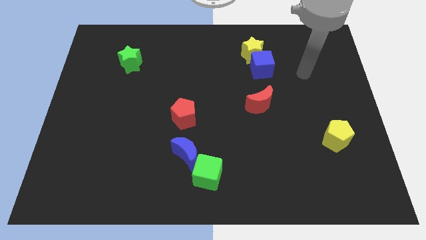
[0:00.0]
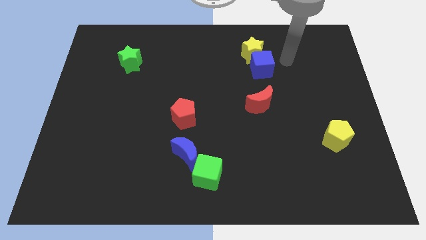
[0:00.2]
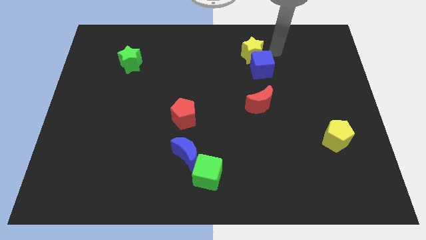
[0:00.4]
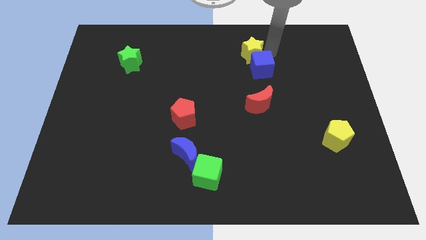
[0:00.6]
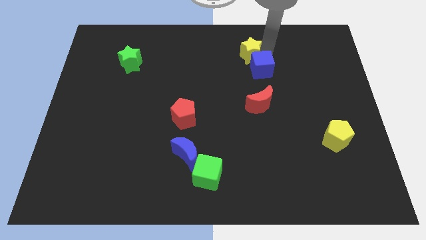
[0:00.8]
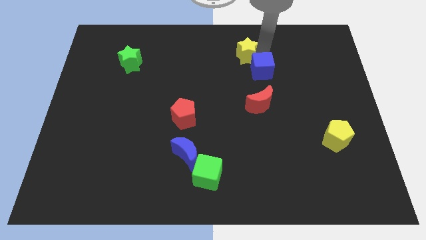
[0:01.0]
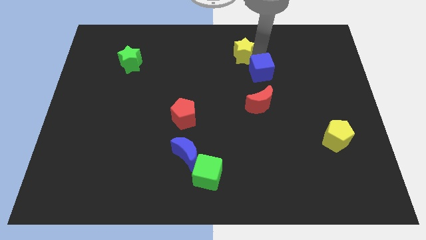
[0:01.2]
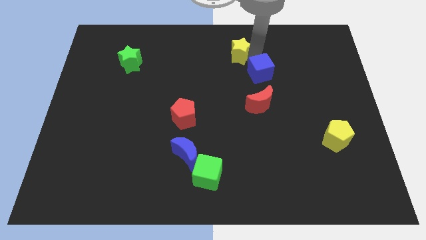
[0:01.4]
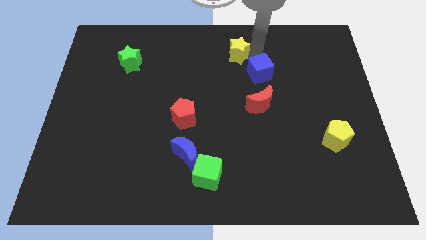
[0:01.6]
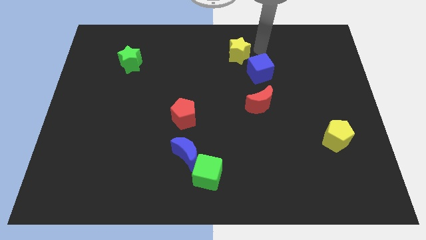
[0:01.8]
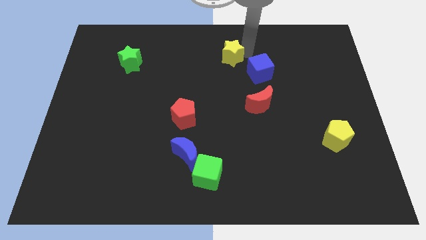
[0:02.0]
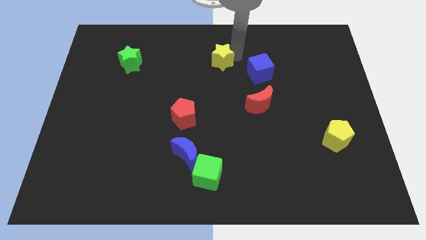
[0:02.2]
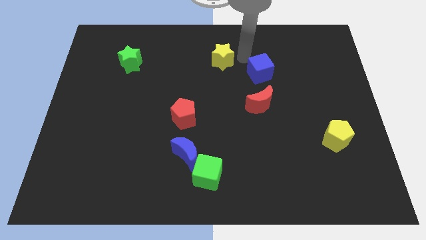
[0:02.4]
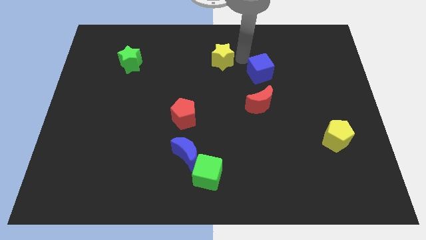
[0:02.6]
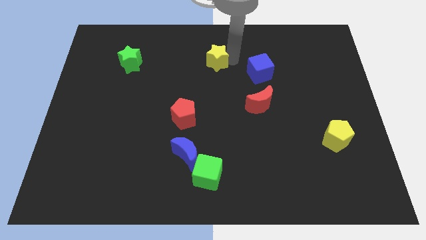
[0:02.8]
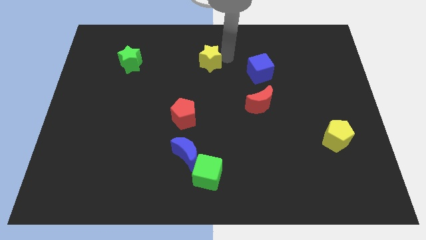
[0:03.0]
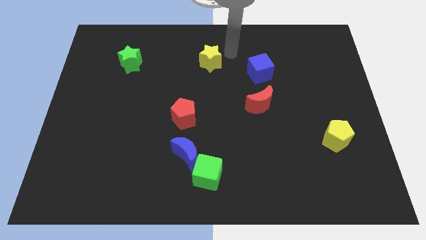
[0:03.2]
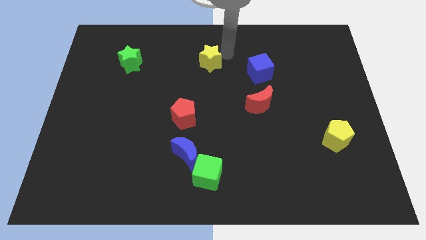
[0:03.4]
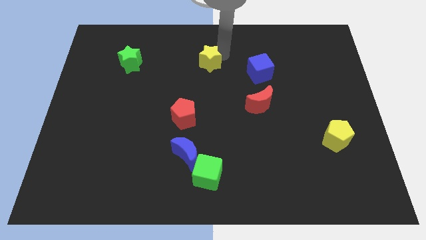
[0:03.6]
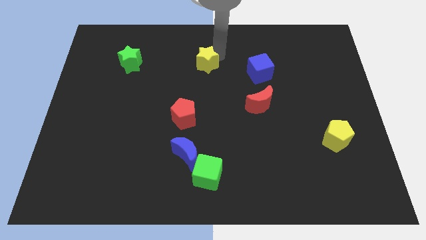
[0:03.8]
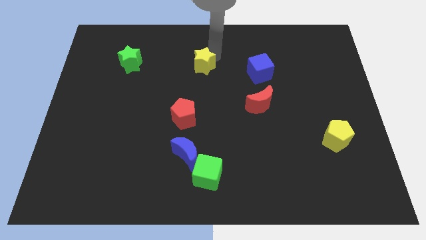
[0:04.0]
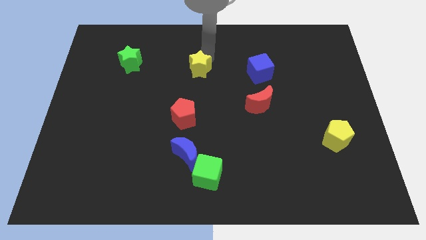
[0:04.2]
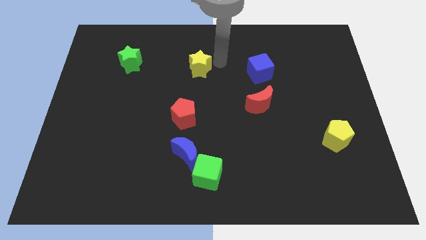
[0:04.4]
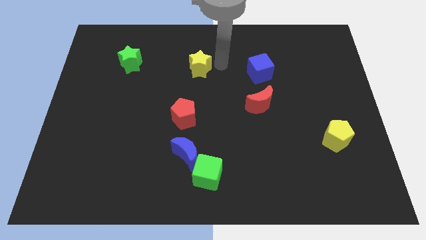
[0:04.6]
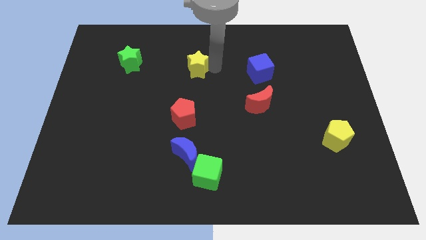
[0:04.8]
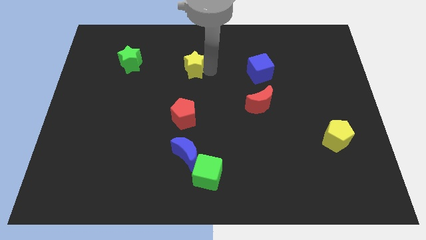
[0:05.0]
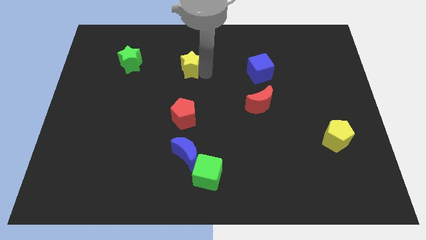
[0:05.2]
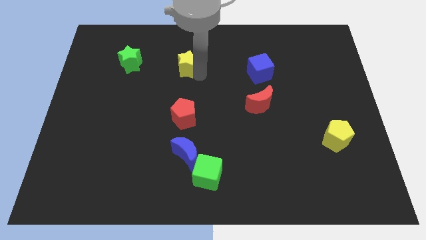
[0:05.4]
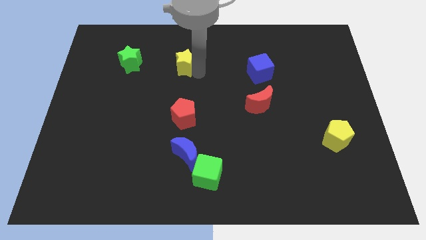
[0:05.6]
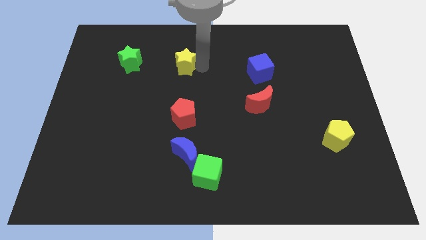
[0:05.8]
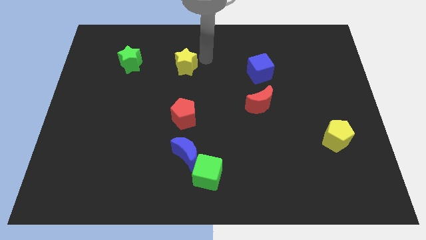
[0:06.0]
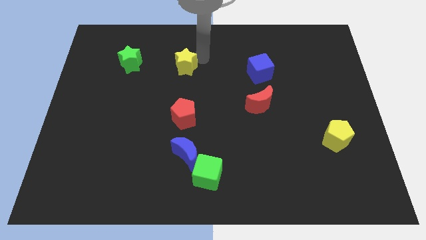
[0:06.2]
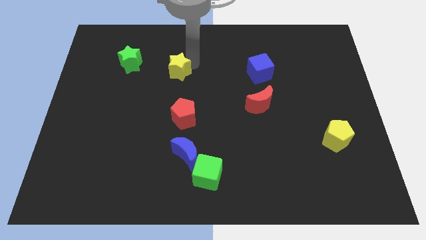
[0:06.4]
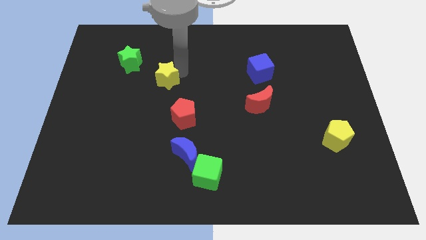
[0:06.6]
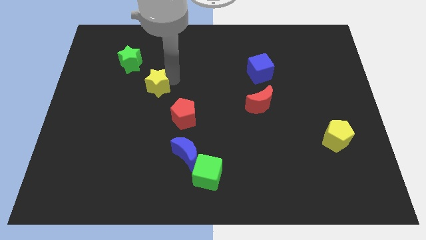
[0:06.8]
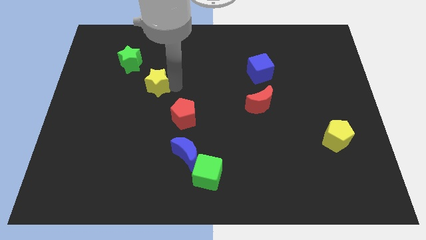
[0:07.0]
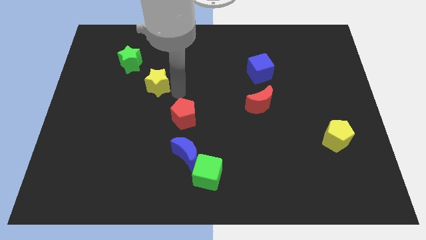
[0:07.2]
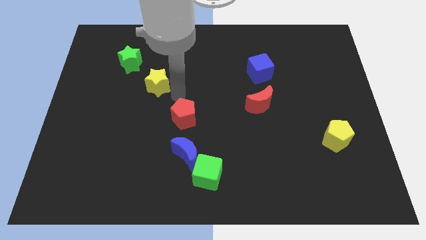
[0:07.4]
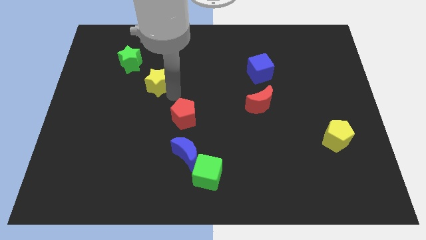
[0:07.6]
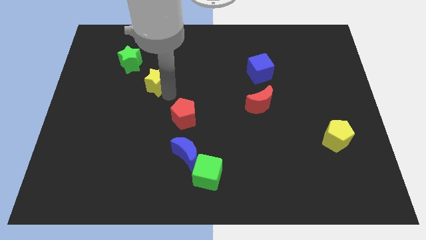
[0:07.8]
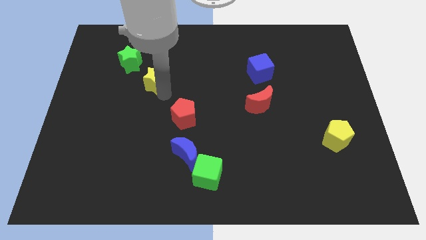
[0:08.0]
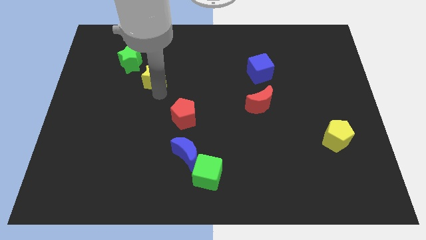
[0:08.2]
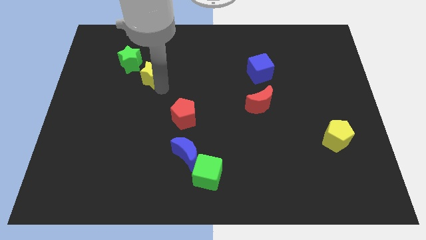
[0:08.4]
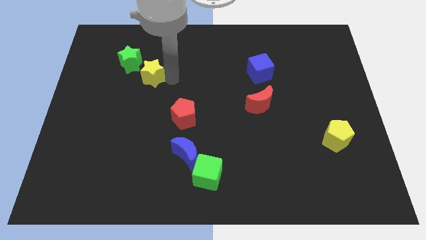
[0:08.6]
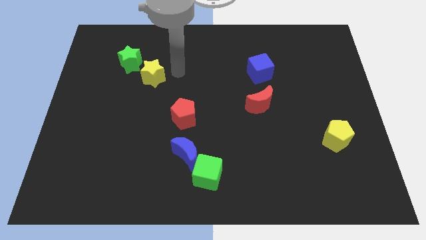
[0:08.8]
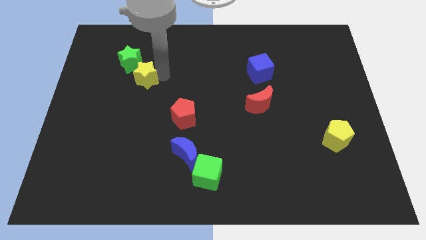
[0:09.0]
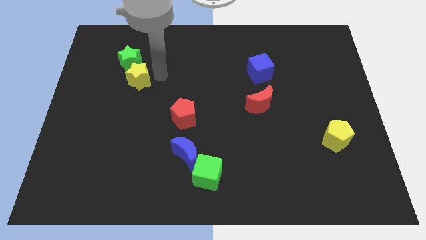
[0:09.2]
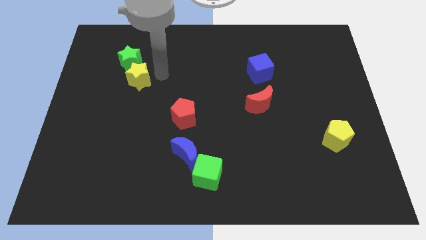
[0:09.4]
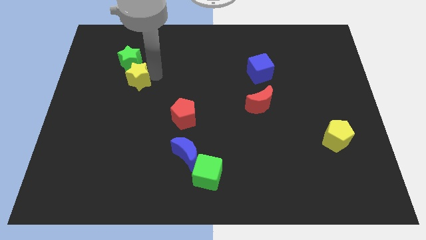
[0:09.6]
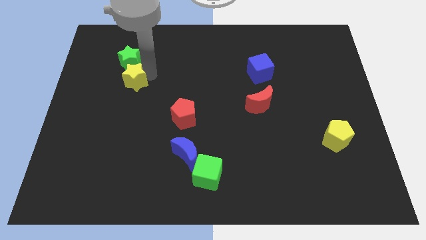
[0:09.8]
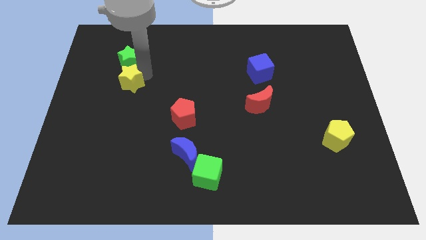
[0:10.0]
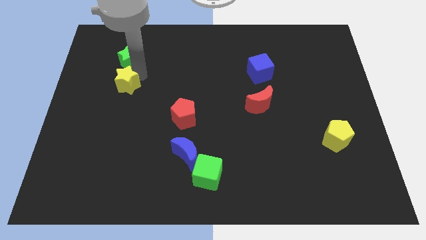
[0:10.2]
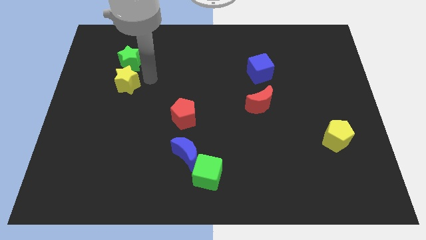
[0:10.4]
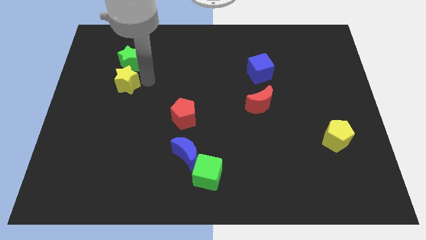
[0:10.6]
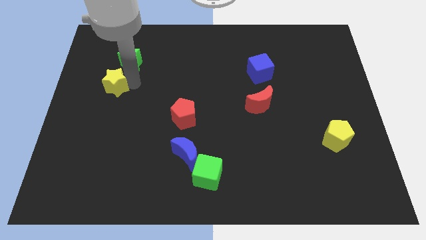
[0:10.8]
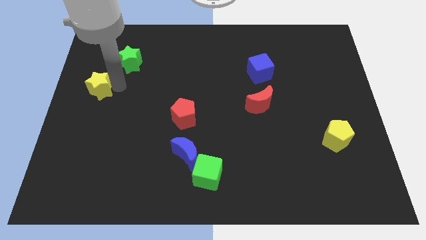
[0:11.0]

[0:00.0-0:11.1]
slide the yellow star to the left side of the board
